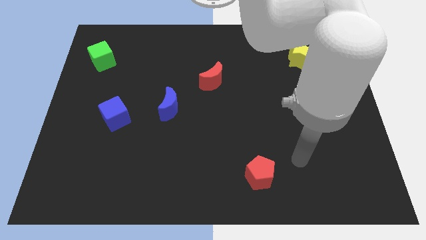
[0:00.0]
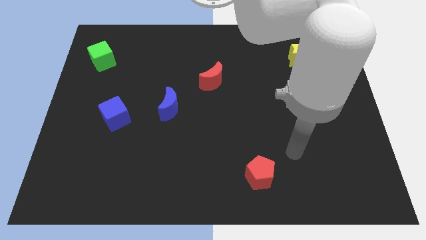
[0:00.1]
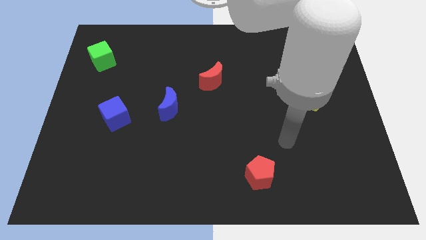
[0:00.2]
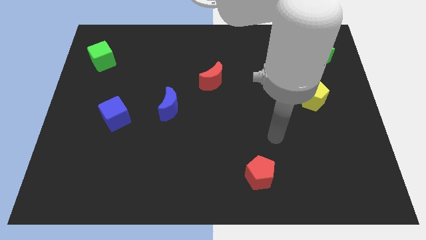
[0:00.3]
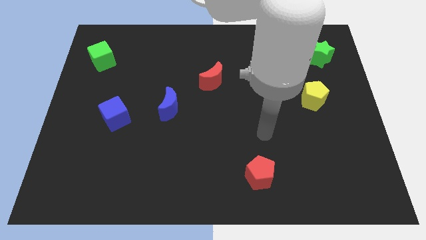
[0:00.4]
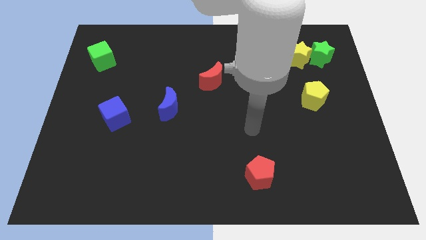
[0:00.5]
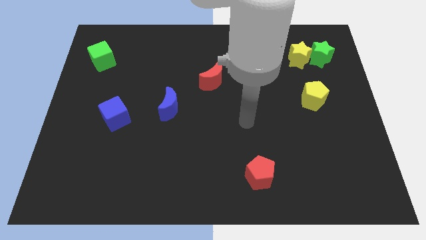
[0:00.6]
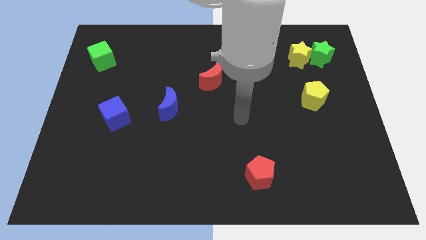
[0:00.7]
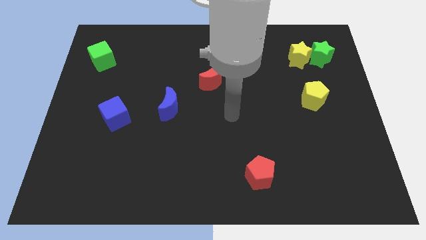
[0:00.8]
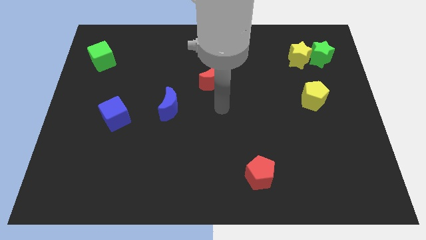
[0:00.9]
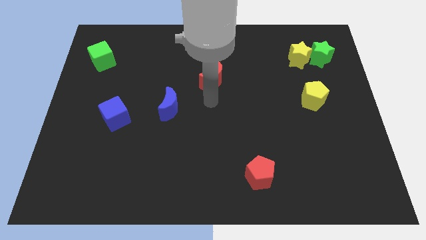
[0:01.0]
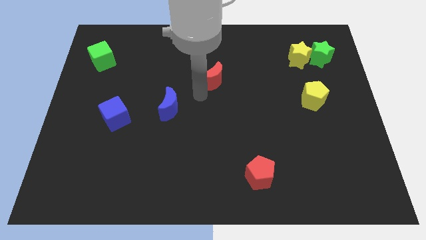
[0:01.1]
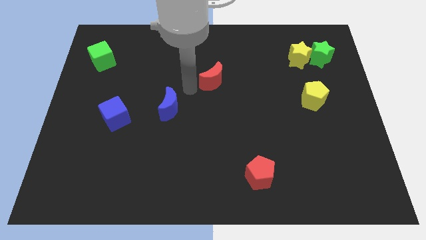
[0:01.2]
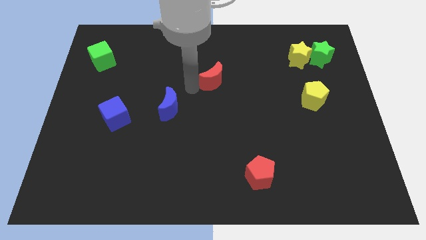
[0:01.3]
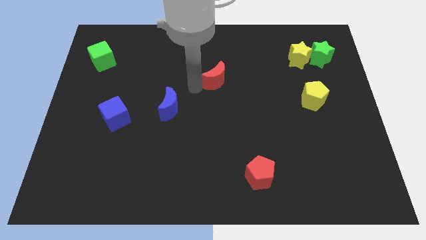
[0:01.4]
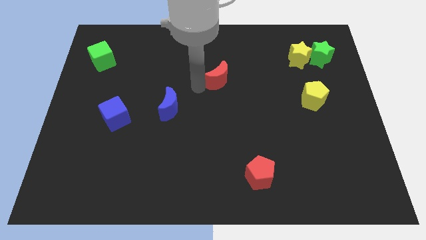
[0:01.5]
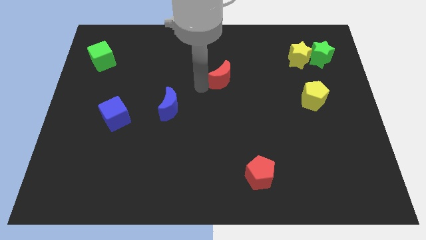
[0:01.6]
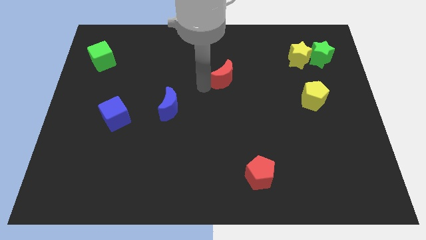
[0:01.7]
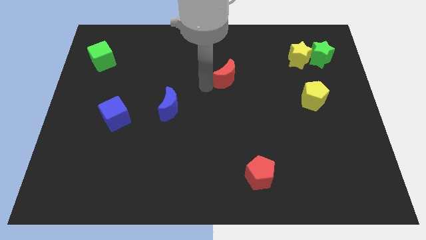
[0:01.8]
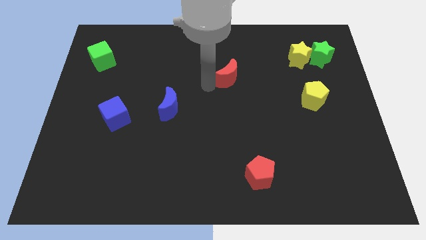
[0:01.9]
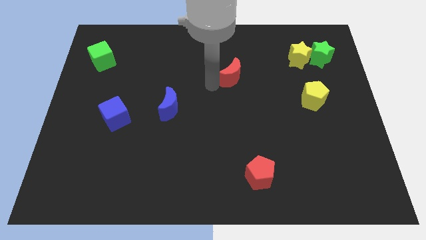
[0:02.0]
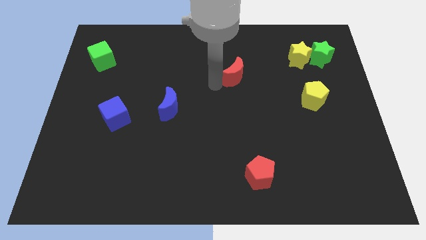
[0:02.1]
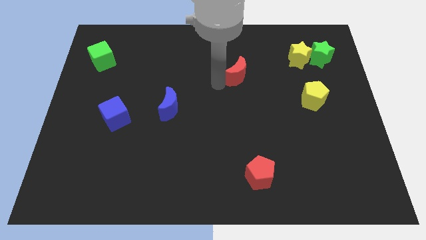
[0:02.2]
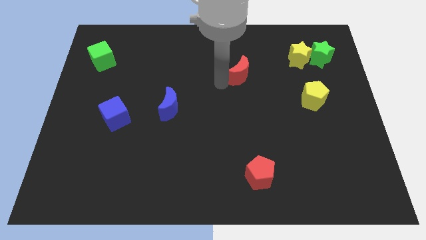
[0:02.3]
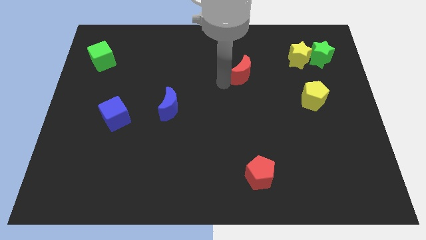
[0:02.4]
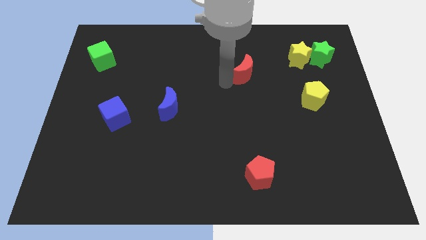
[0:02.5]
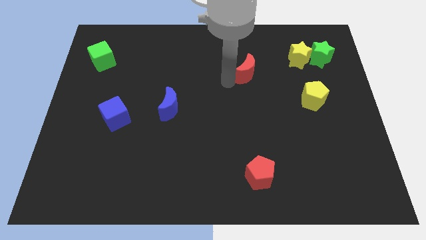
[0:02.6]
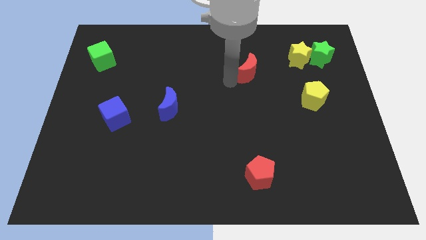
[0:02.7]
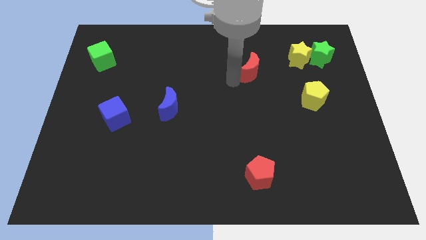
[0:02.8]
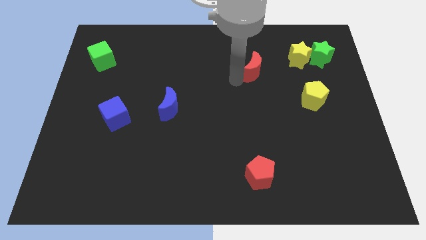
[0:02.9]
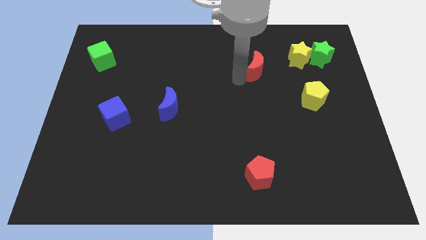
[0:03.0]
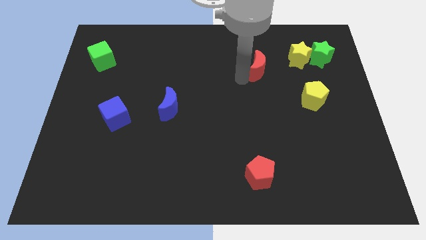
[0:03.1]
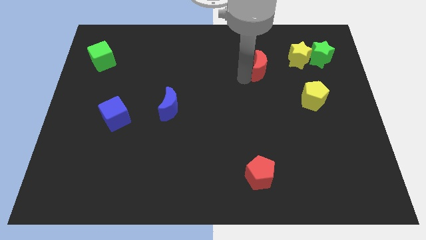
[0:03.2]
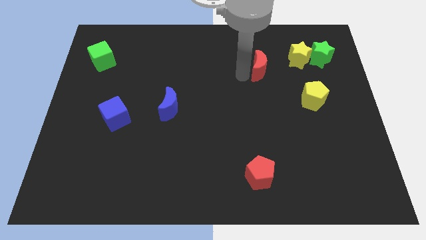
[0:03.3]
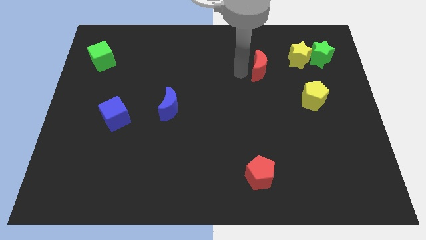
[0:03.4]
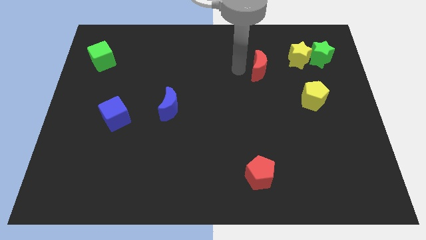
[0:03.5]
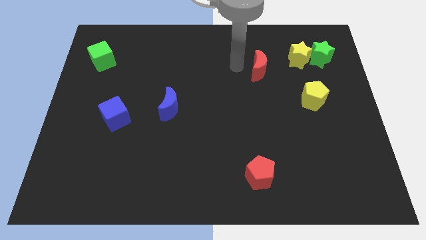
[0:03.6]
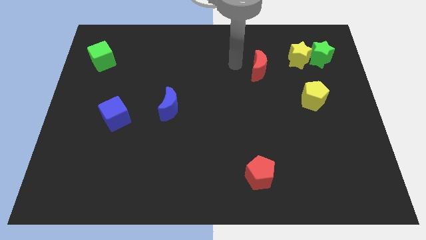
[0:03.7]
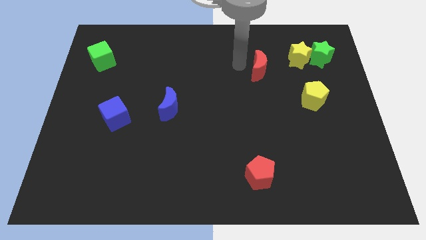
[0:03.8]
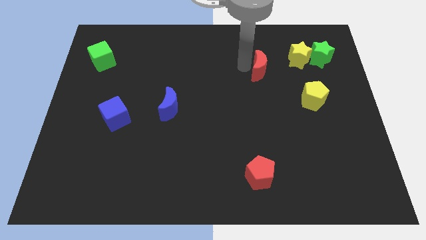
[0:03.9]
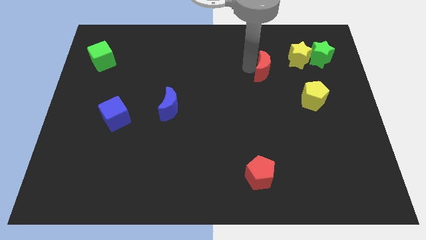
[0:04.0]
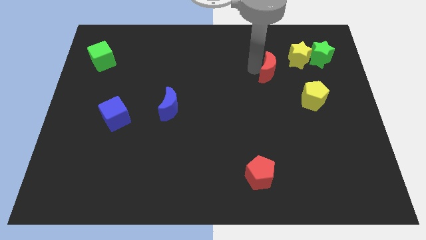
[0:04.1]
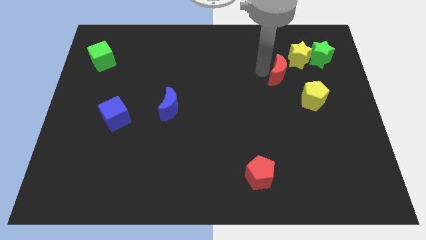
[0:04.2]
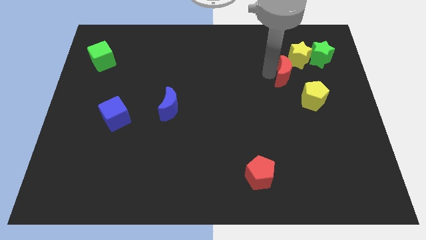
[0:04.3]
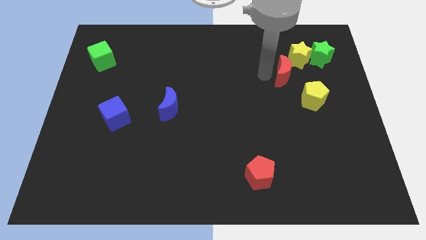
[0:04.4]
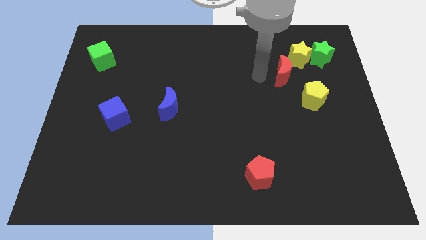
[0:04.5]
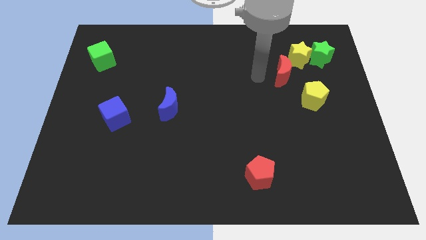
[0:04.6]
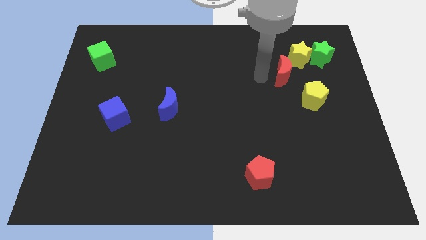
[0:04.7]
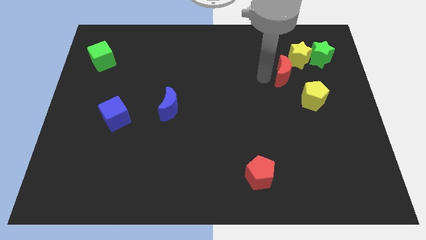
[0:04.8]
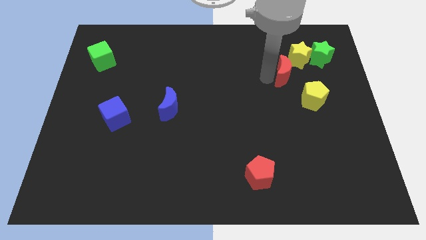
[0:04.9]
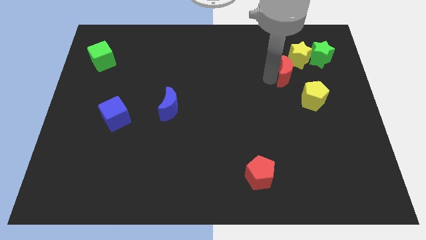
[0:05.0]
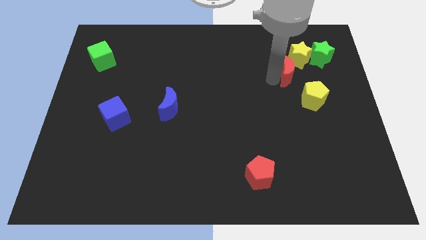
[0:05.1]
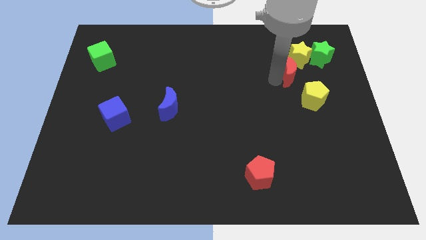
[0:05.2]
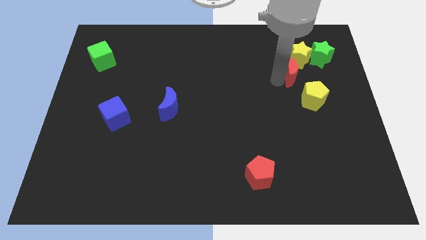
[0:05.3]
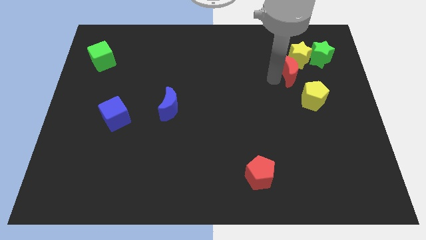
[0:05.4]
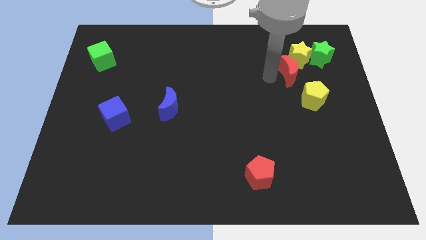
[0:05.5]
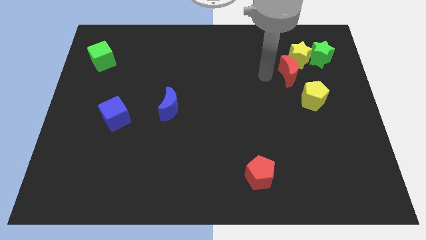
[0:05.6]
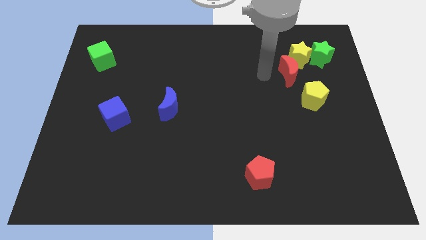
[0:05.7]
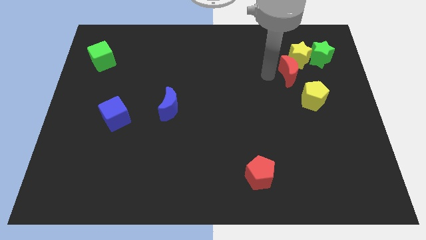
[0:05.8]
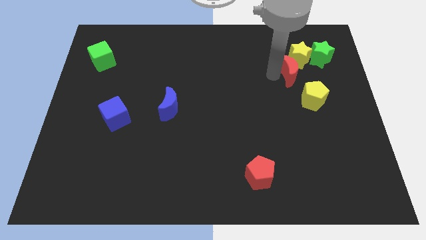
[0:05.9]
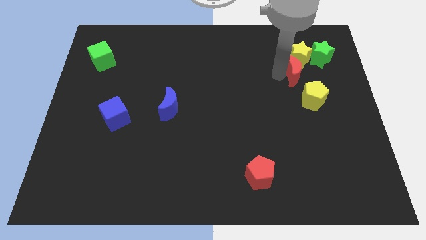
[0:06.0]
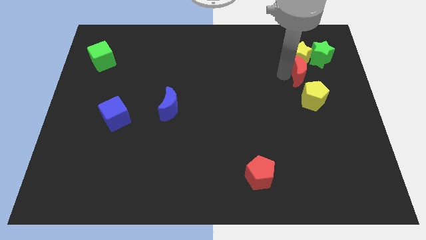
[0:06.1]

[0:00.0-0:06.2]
move the red moon to the bottom right side of the yellow star
